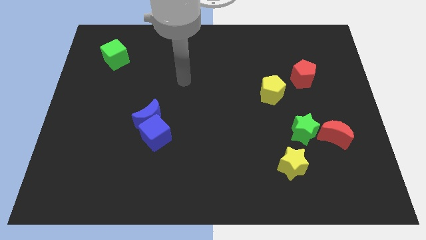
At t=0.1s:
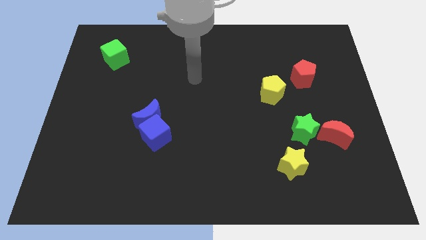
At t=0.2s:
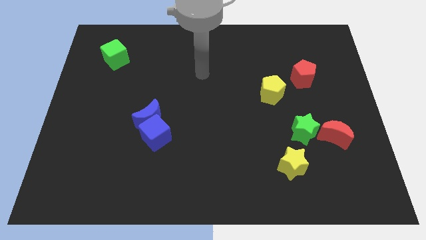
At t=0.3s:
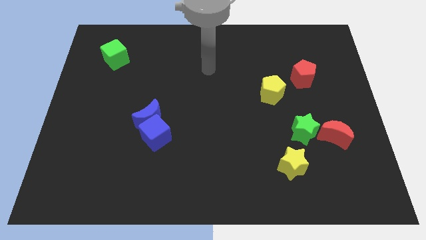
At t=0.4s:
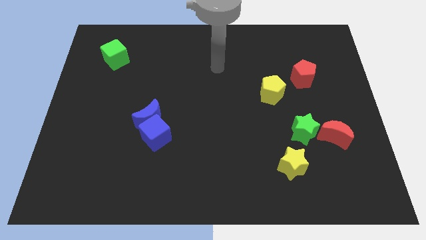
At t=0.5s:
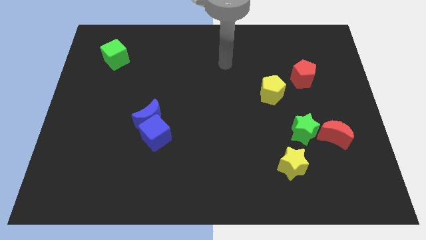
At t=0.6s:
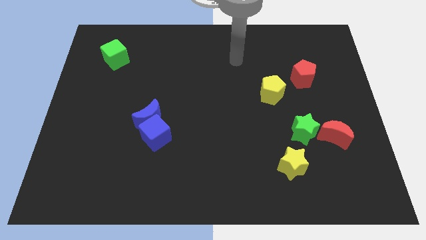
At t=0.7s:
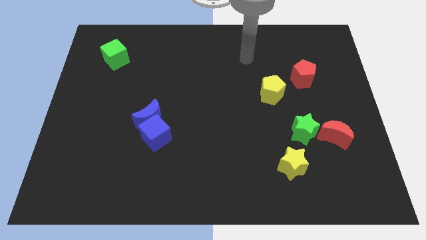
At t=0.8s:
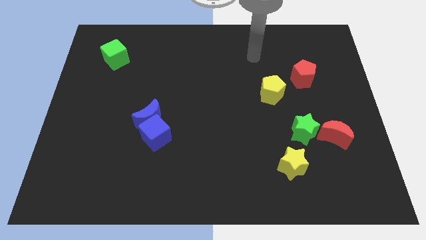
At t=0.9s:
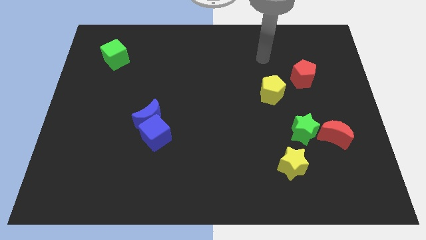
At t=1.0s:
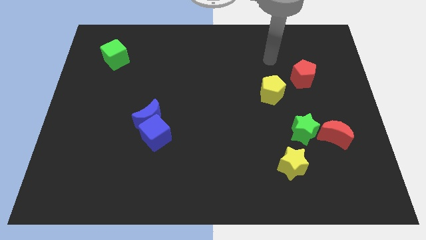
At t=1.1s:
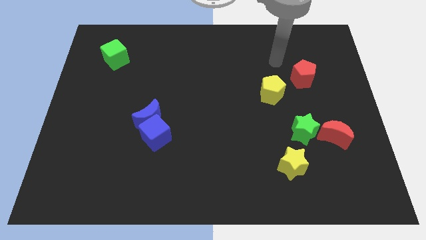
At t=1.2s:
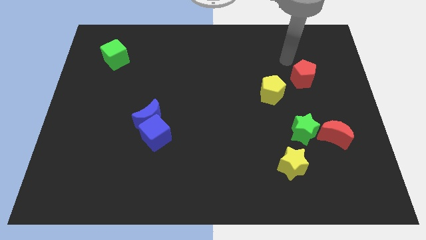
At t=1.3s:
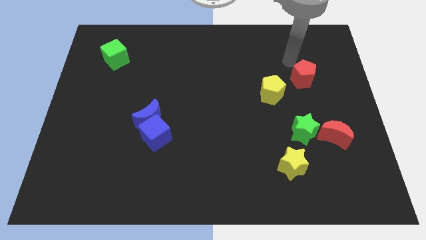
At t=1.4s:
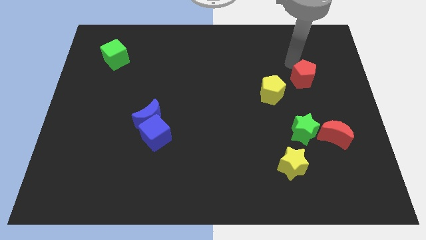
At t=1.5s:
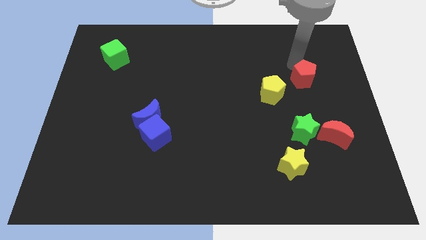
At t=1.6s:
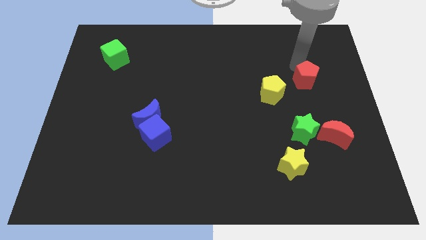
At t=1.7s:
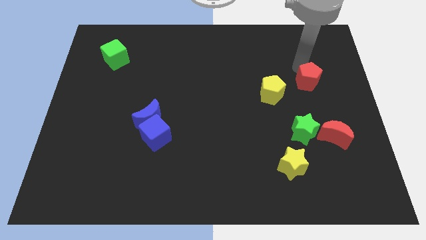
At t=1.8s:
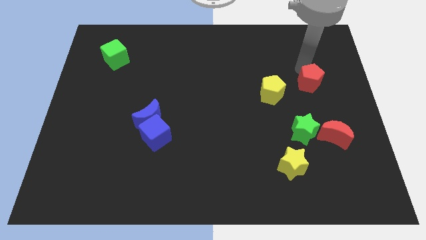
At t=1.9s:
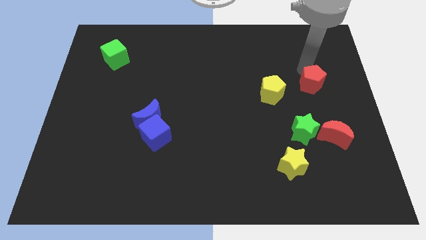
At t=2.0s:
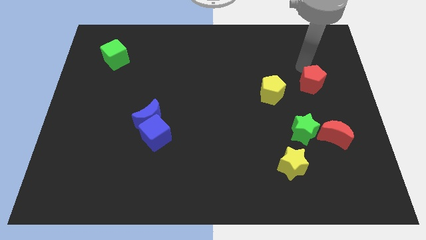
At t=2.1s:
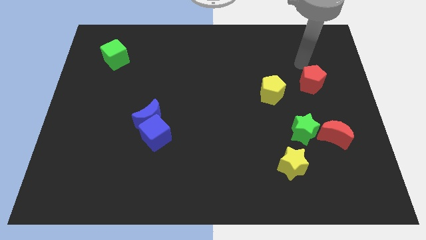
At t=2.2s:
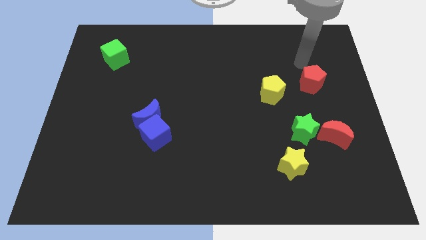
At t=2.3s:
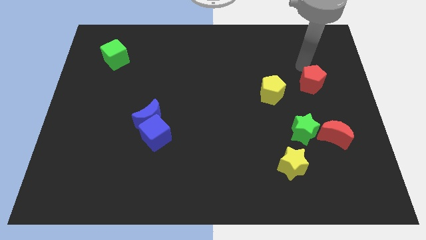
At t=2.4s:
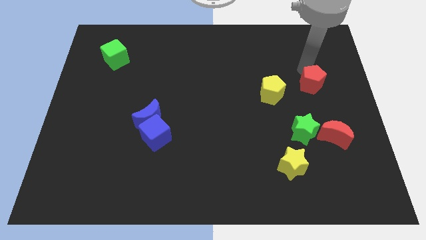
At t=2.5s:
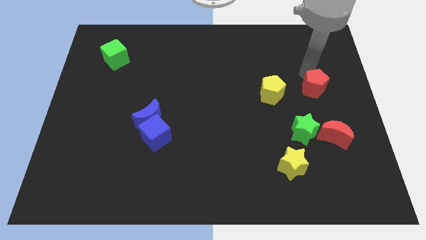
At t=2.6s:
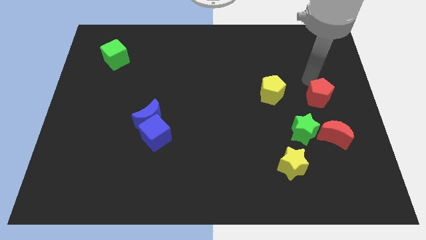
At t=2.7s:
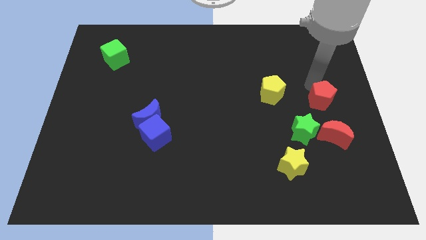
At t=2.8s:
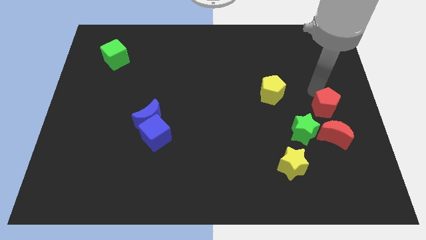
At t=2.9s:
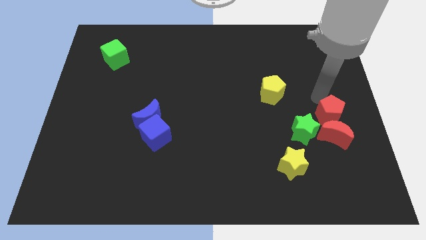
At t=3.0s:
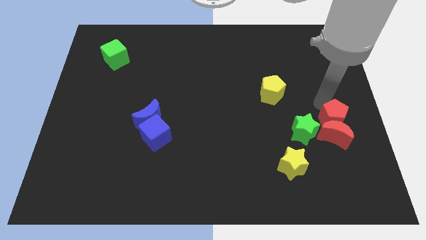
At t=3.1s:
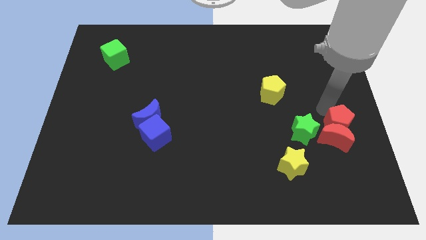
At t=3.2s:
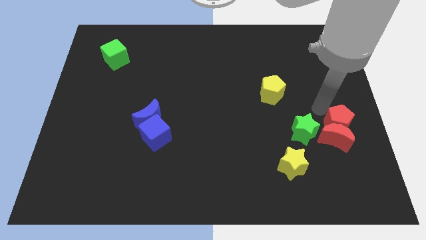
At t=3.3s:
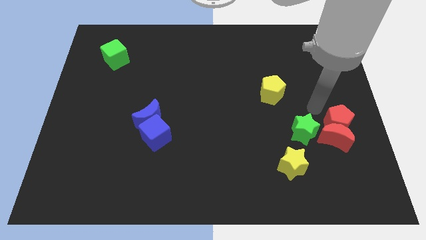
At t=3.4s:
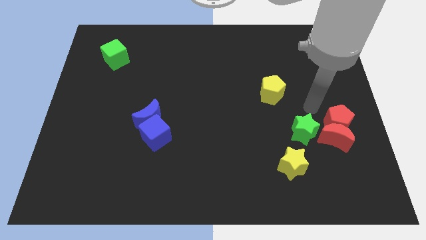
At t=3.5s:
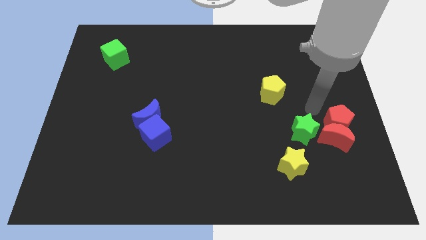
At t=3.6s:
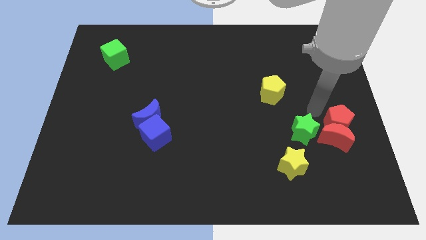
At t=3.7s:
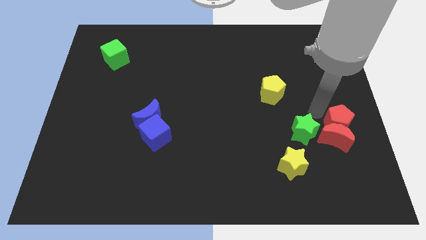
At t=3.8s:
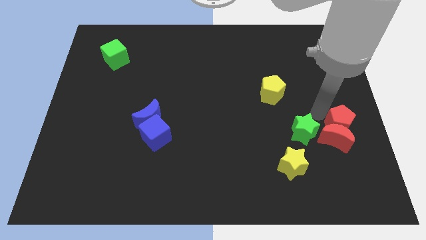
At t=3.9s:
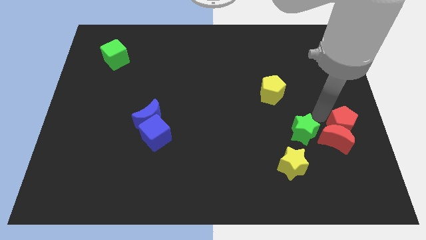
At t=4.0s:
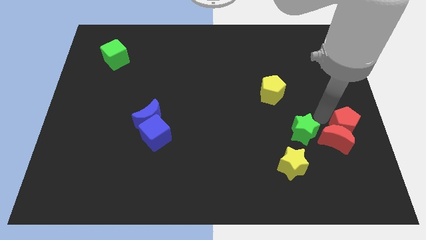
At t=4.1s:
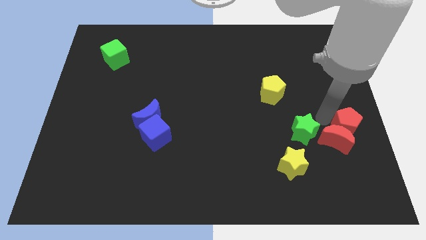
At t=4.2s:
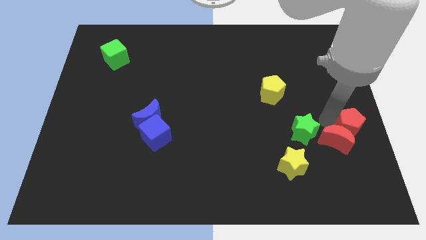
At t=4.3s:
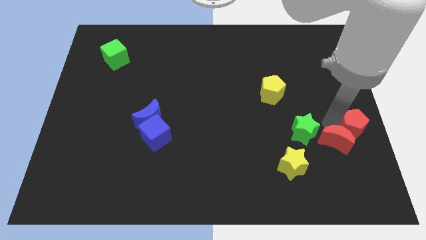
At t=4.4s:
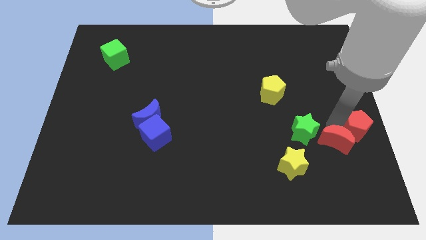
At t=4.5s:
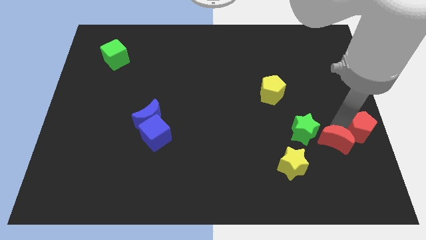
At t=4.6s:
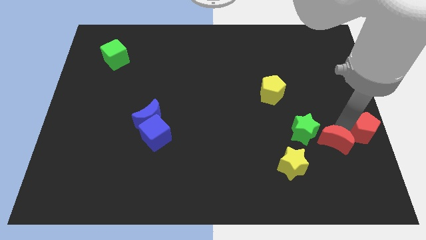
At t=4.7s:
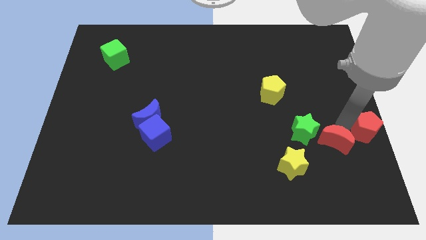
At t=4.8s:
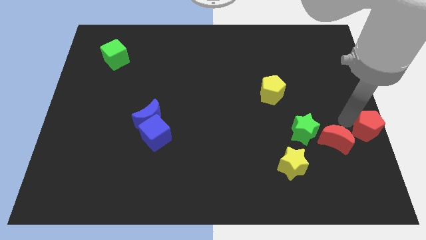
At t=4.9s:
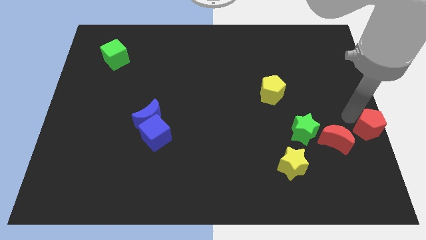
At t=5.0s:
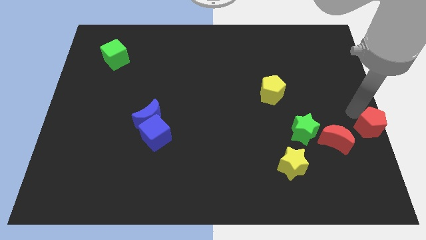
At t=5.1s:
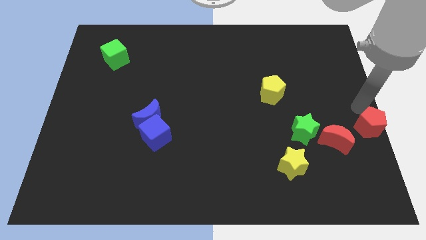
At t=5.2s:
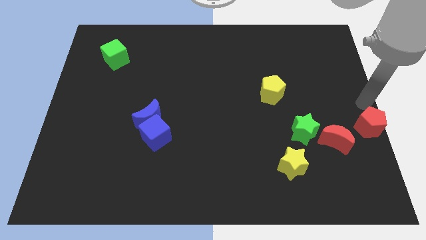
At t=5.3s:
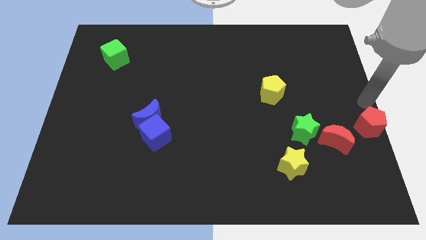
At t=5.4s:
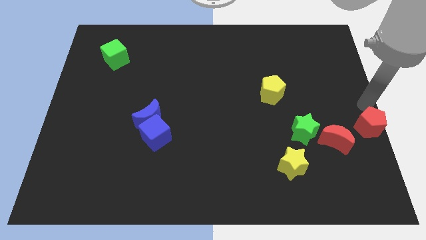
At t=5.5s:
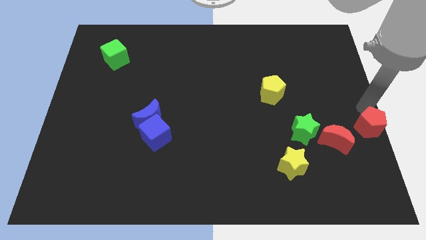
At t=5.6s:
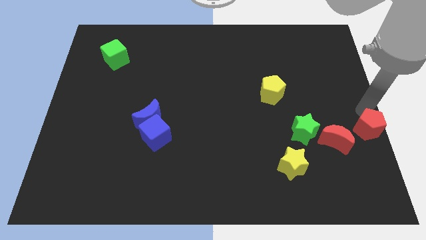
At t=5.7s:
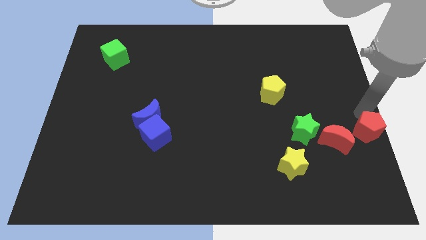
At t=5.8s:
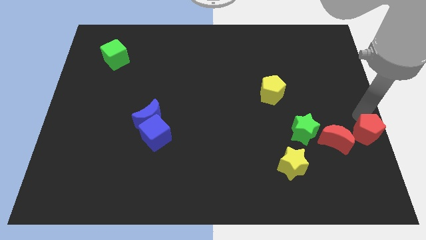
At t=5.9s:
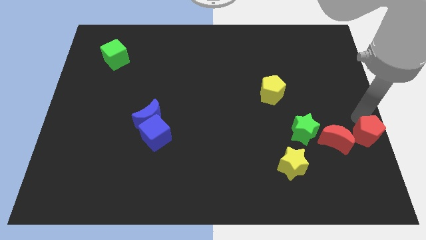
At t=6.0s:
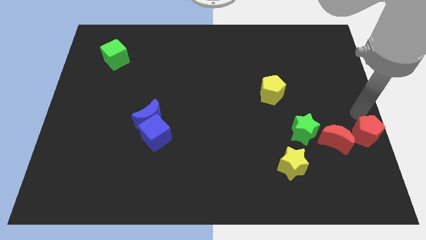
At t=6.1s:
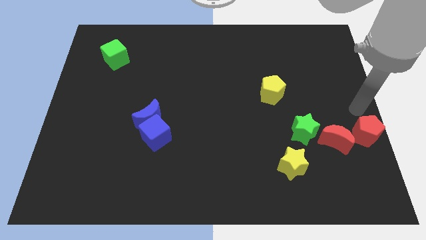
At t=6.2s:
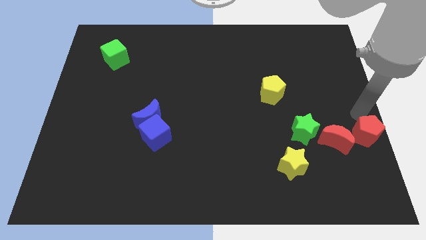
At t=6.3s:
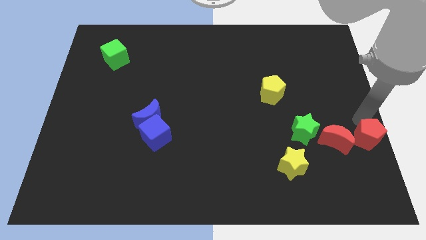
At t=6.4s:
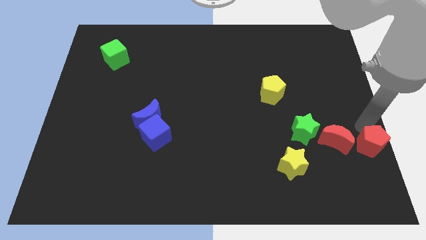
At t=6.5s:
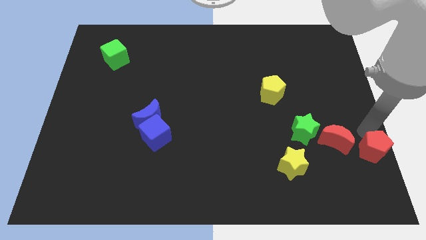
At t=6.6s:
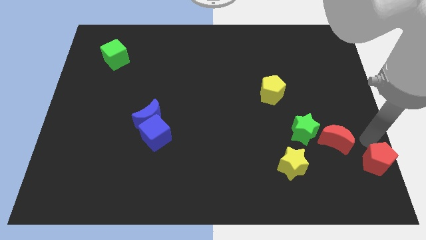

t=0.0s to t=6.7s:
push the red pentagon to the bottom right
